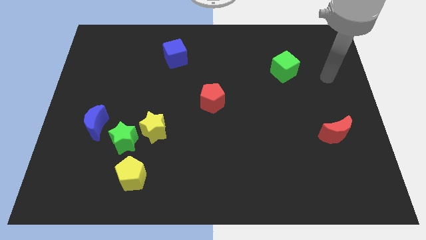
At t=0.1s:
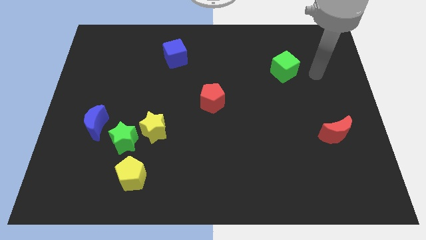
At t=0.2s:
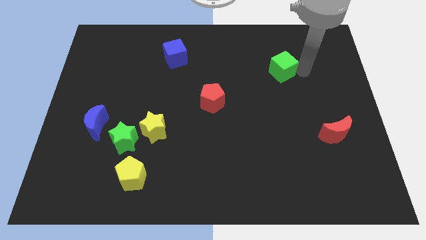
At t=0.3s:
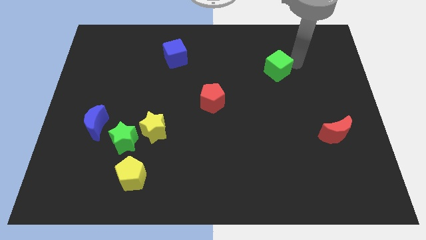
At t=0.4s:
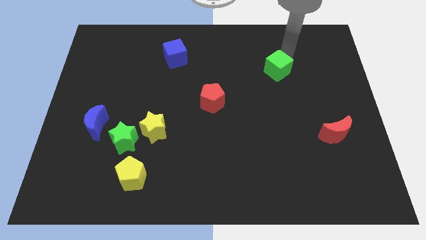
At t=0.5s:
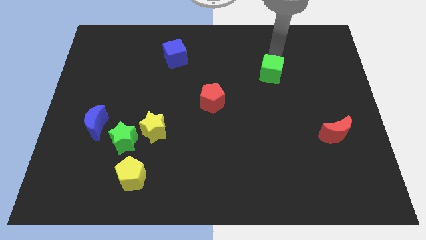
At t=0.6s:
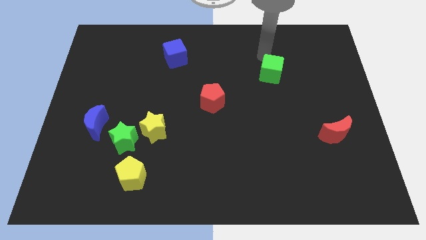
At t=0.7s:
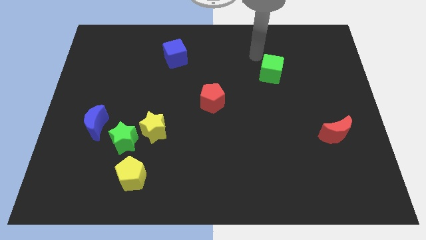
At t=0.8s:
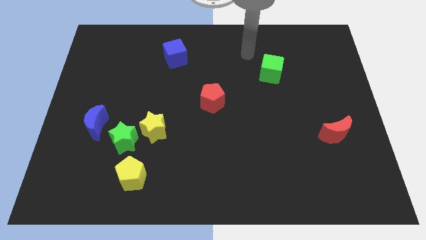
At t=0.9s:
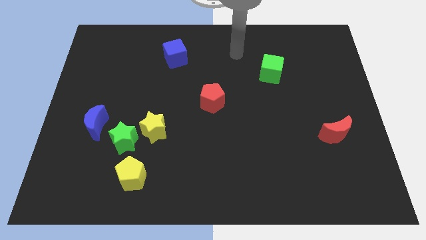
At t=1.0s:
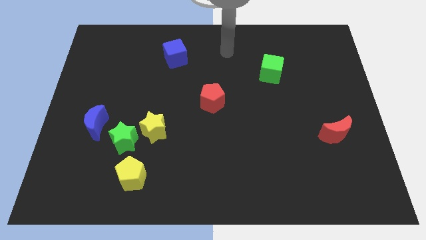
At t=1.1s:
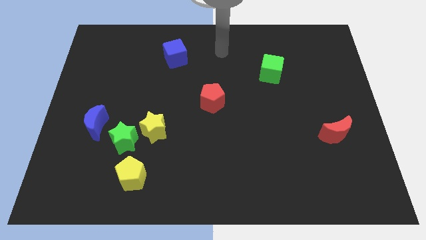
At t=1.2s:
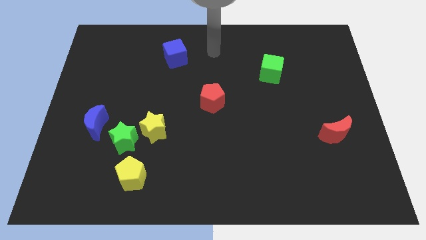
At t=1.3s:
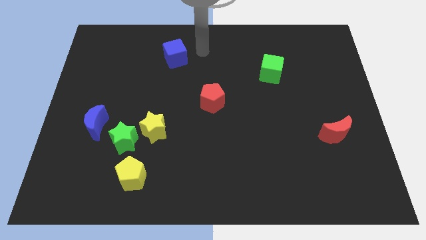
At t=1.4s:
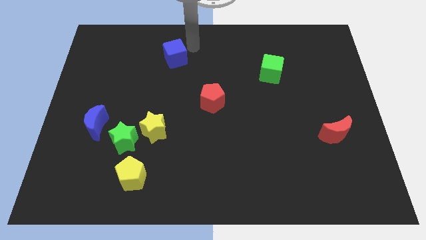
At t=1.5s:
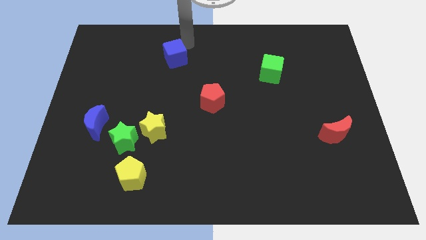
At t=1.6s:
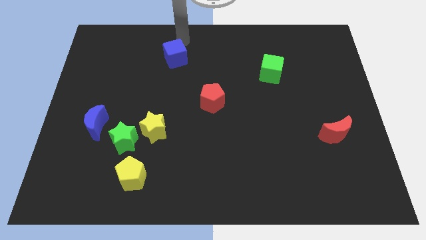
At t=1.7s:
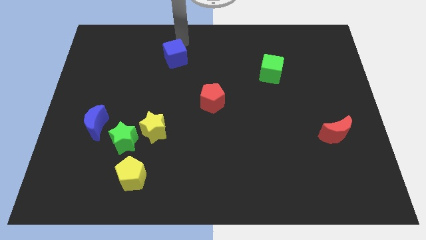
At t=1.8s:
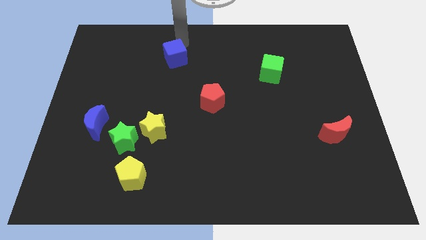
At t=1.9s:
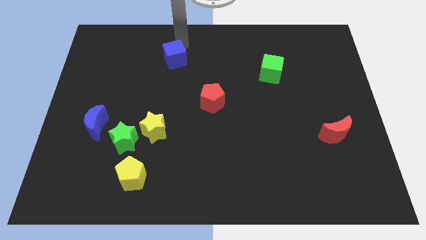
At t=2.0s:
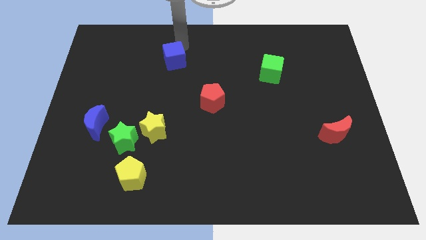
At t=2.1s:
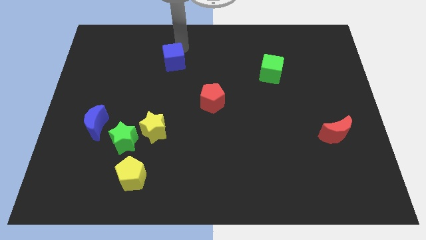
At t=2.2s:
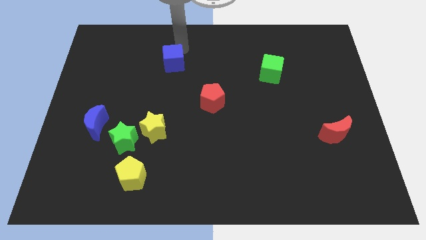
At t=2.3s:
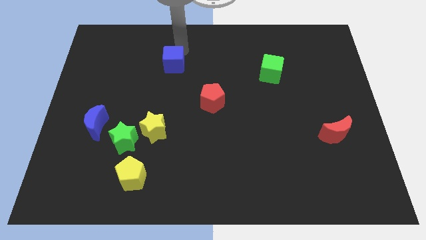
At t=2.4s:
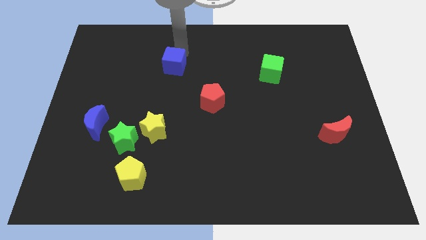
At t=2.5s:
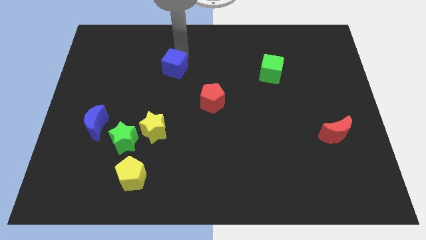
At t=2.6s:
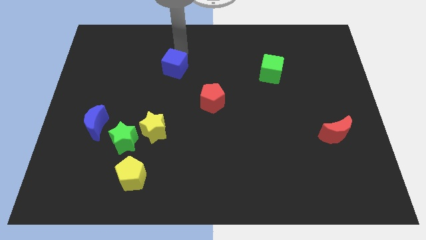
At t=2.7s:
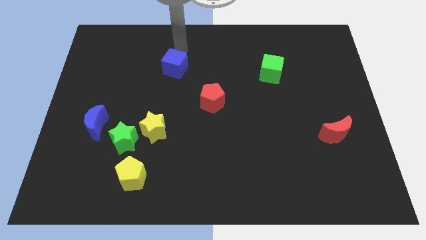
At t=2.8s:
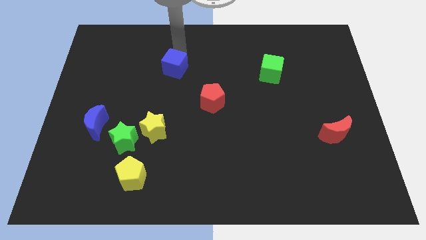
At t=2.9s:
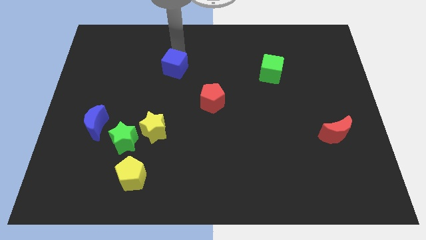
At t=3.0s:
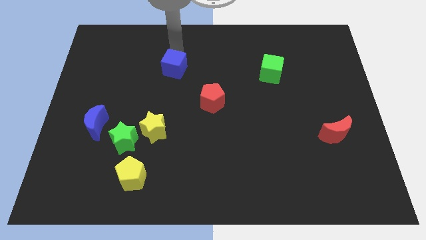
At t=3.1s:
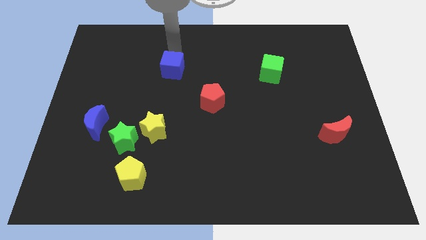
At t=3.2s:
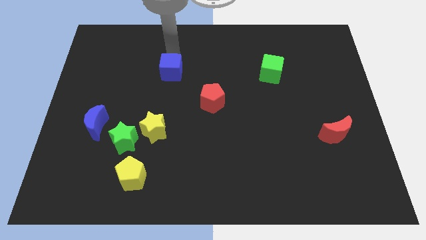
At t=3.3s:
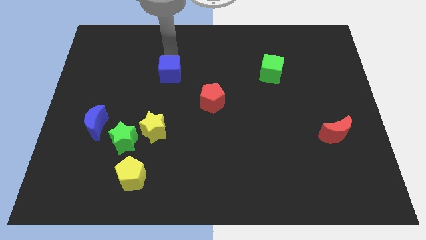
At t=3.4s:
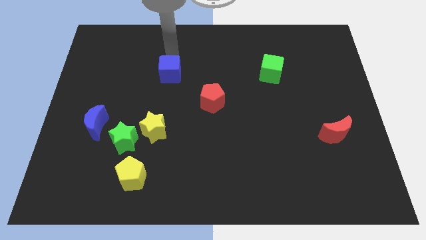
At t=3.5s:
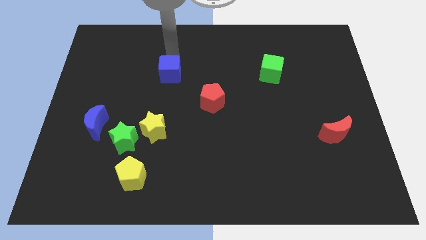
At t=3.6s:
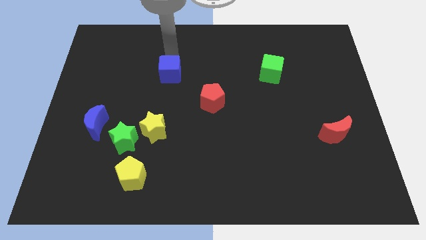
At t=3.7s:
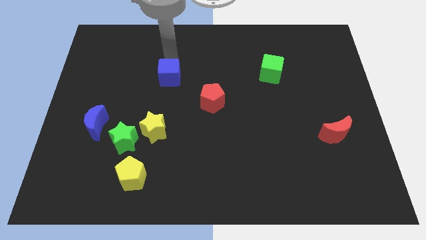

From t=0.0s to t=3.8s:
slightly slide the blue cube downwards

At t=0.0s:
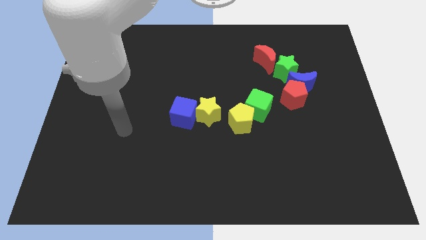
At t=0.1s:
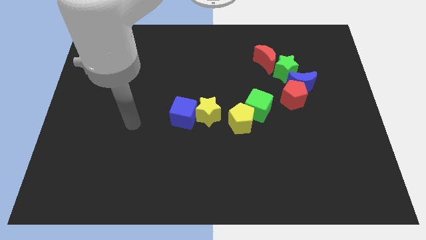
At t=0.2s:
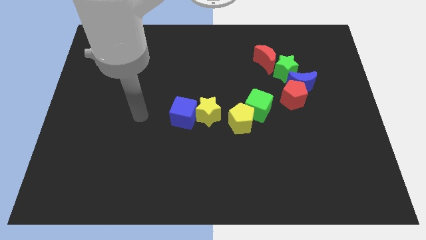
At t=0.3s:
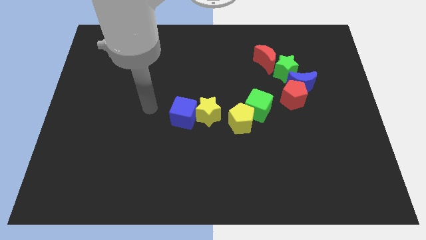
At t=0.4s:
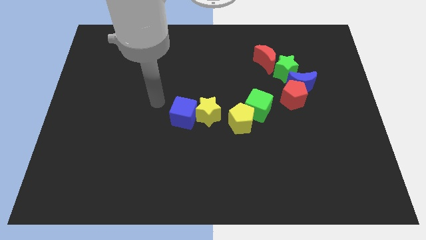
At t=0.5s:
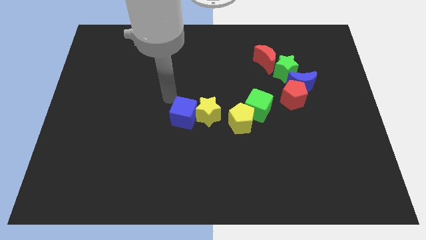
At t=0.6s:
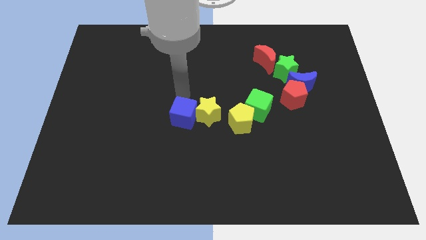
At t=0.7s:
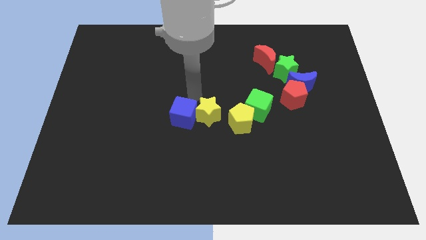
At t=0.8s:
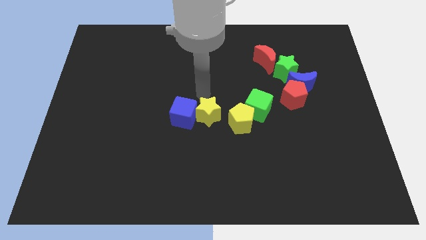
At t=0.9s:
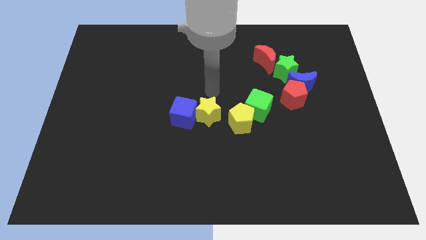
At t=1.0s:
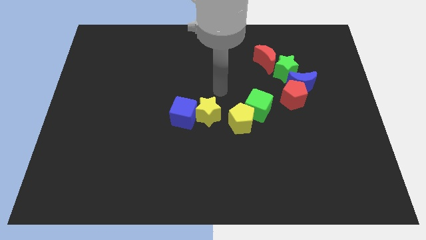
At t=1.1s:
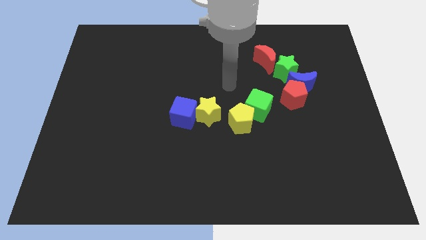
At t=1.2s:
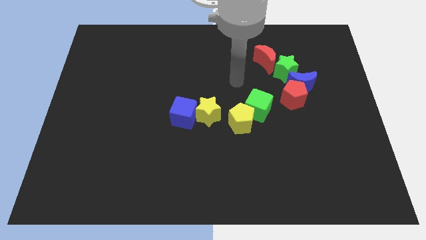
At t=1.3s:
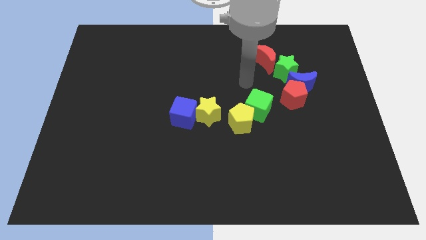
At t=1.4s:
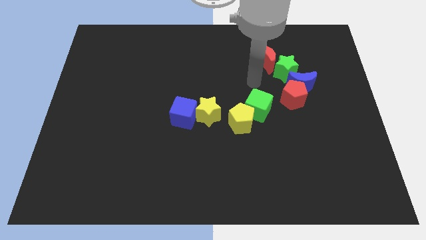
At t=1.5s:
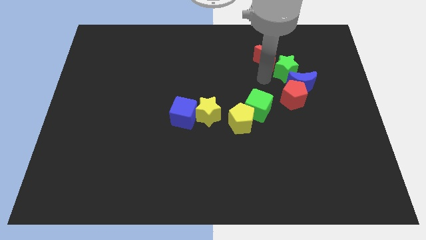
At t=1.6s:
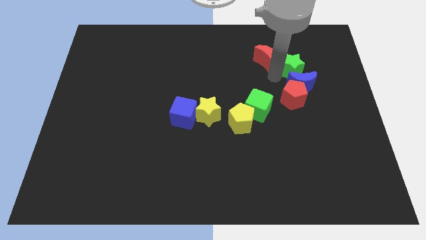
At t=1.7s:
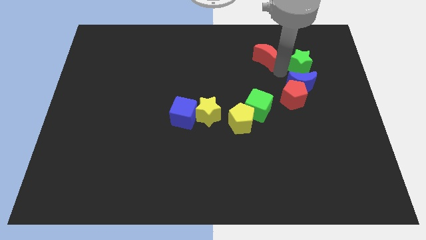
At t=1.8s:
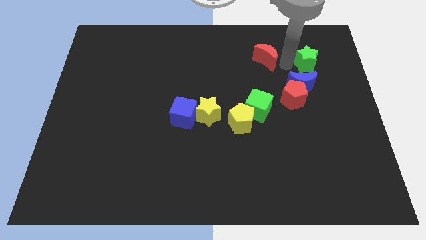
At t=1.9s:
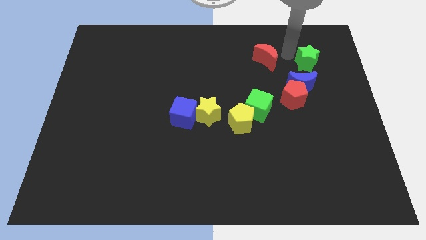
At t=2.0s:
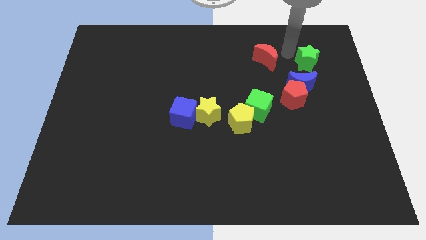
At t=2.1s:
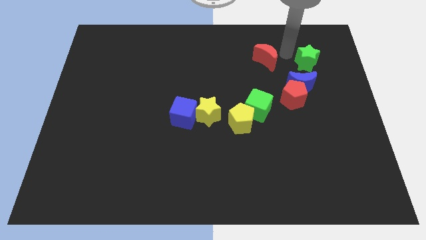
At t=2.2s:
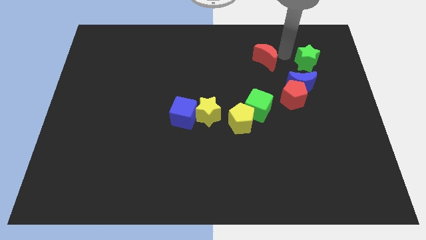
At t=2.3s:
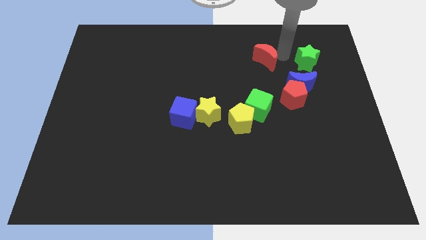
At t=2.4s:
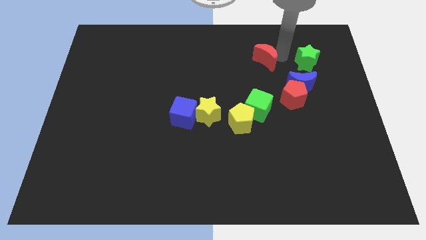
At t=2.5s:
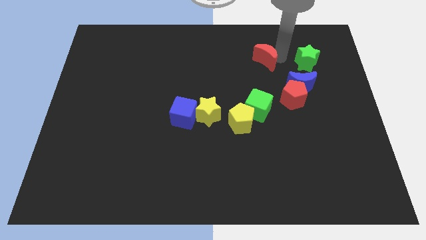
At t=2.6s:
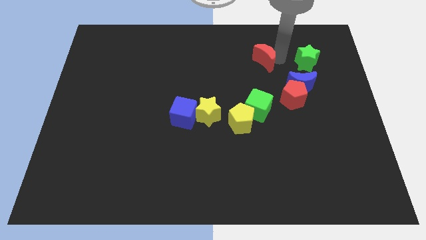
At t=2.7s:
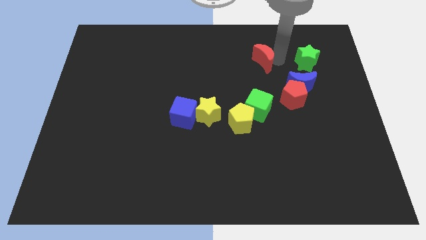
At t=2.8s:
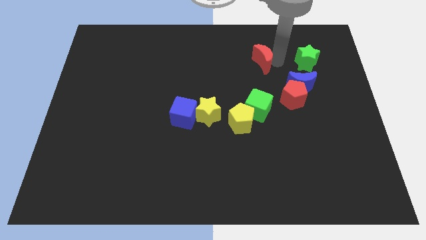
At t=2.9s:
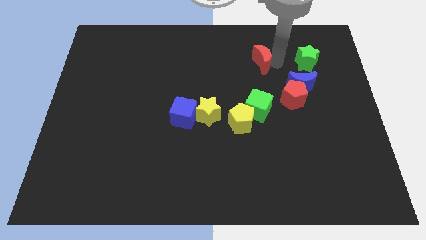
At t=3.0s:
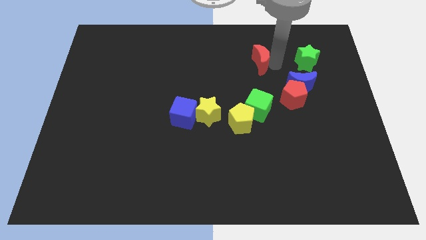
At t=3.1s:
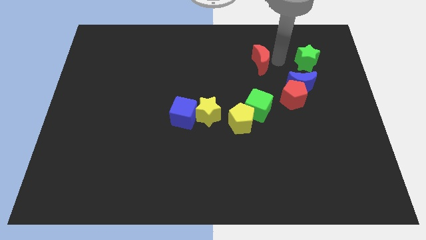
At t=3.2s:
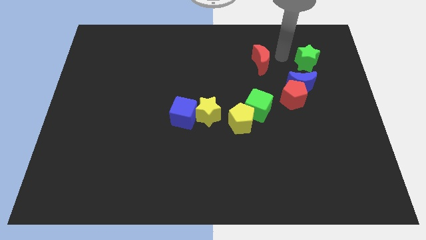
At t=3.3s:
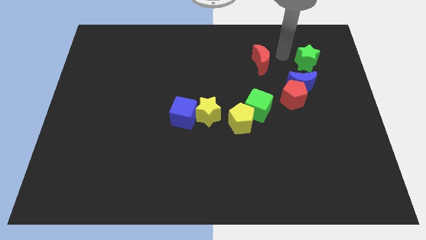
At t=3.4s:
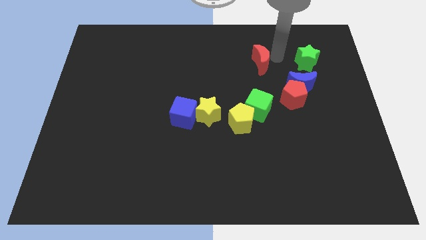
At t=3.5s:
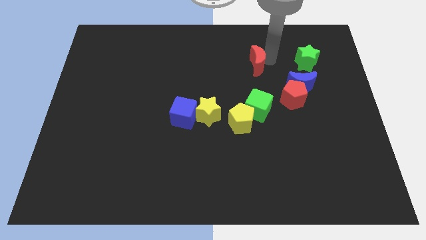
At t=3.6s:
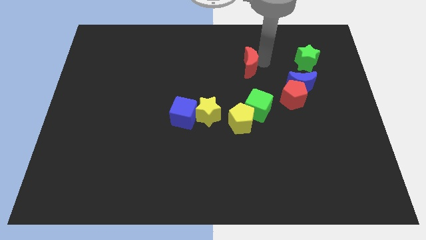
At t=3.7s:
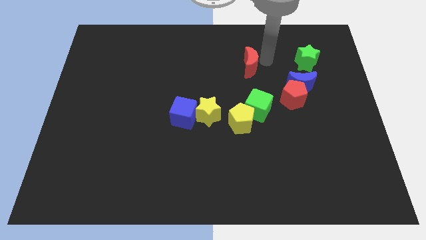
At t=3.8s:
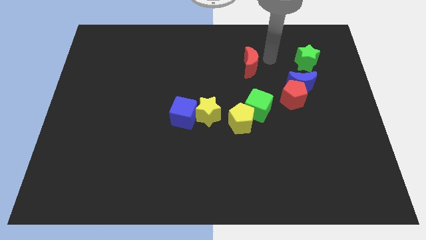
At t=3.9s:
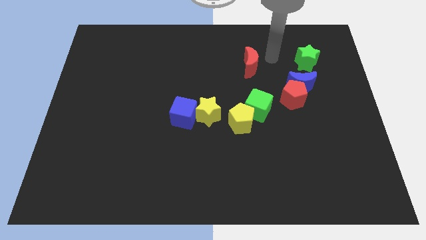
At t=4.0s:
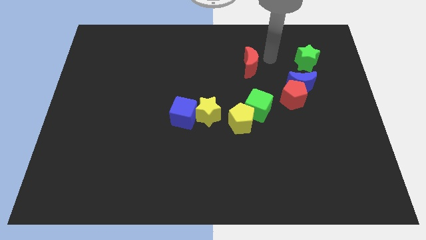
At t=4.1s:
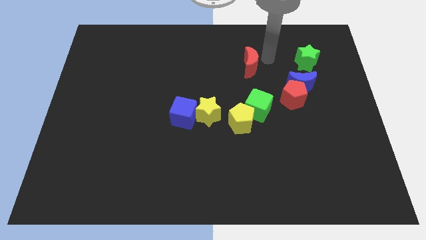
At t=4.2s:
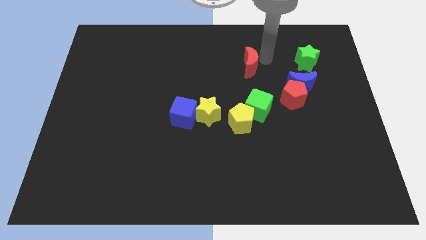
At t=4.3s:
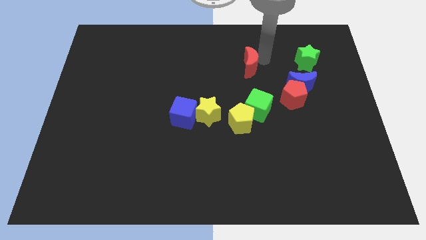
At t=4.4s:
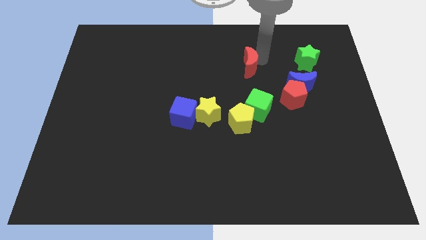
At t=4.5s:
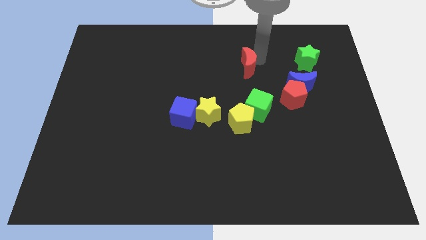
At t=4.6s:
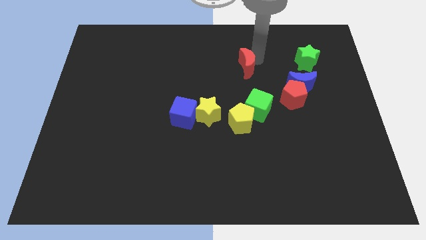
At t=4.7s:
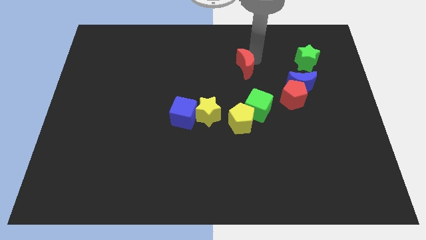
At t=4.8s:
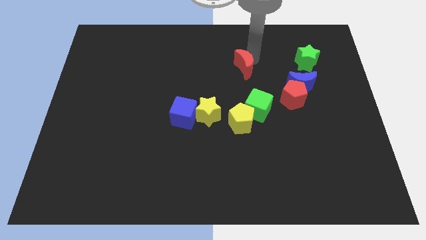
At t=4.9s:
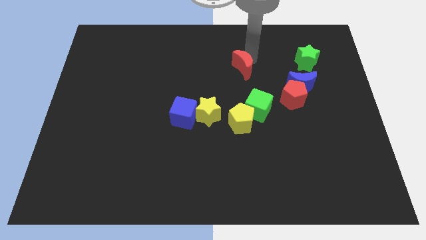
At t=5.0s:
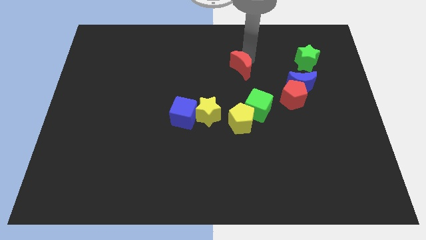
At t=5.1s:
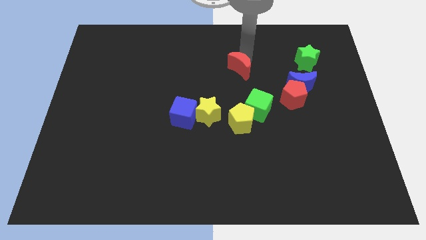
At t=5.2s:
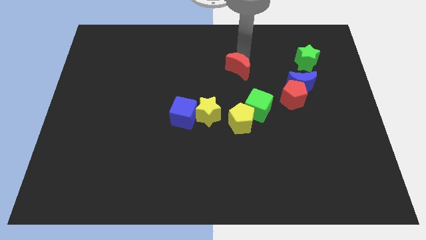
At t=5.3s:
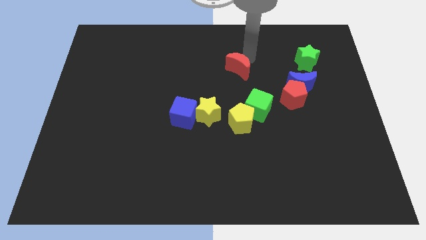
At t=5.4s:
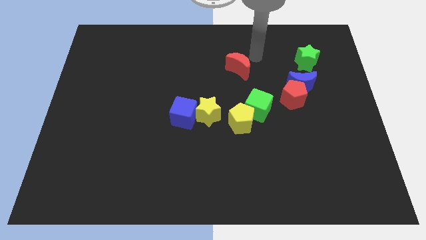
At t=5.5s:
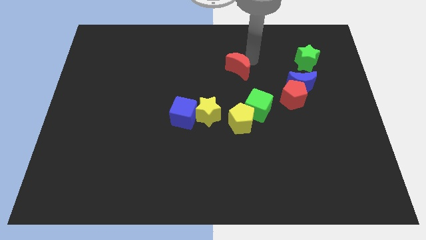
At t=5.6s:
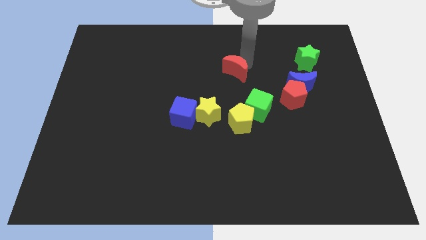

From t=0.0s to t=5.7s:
push the red moon a bit diagonally down and to the left
